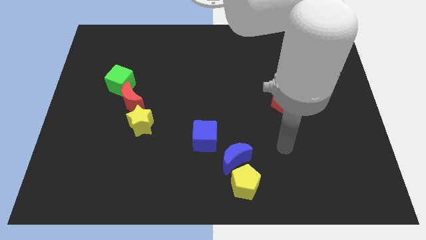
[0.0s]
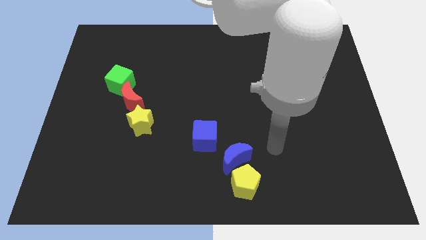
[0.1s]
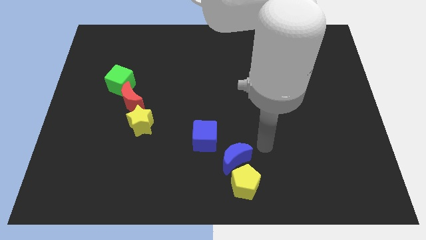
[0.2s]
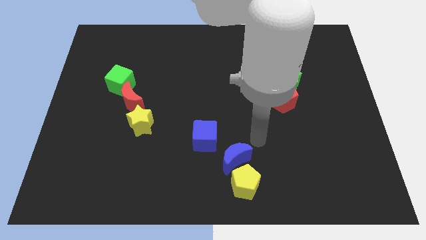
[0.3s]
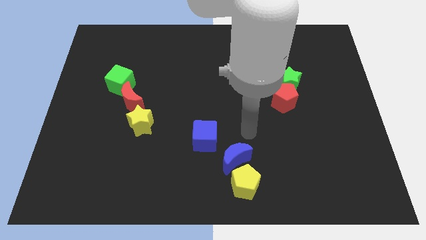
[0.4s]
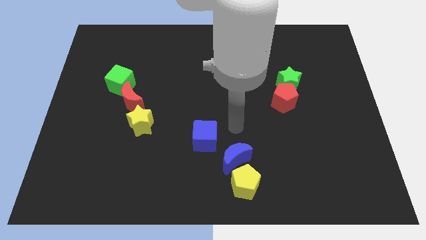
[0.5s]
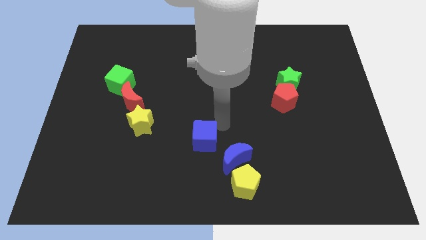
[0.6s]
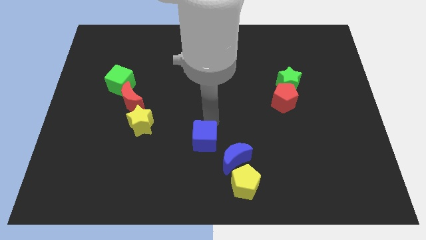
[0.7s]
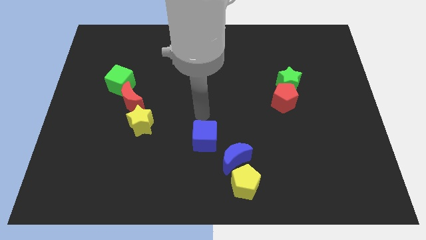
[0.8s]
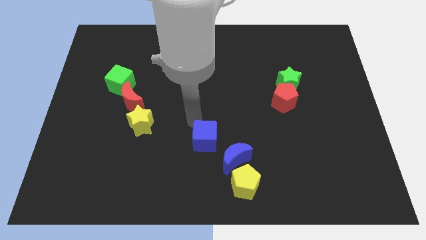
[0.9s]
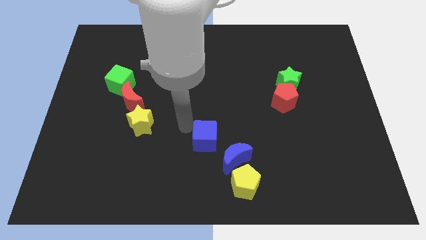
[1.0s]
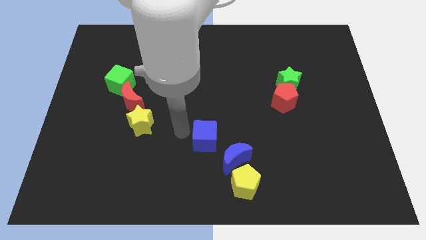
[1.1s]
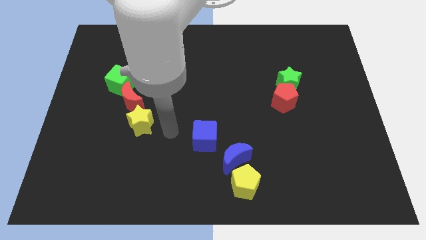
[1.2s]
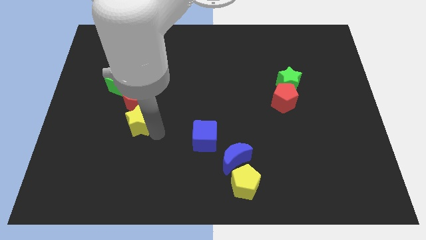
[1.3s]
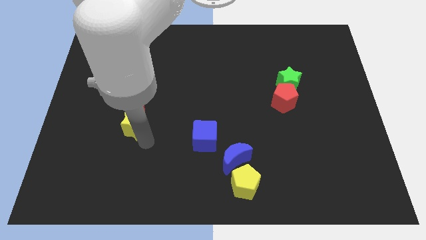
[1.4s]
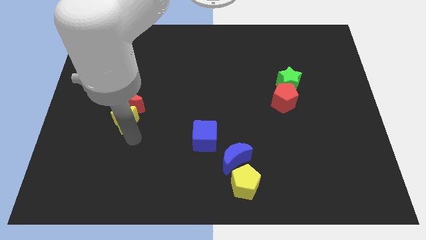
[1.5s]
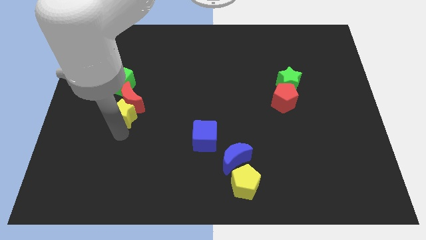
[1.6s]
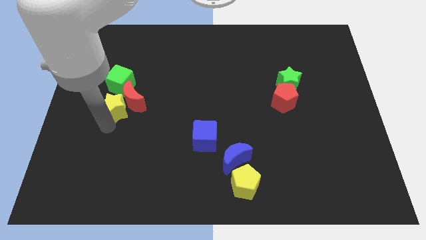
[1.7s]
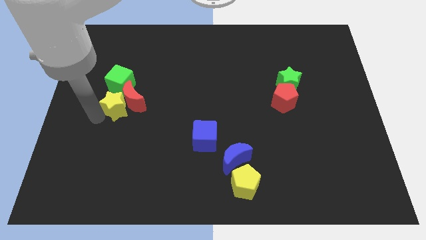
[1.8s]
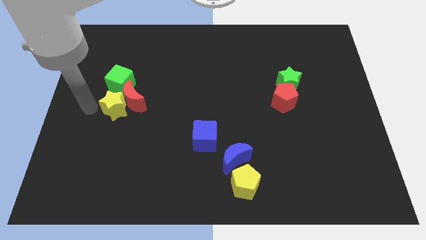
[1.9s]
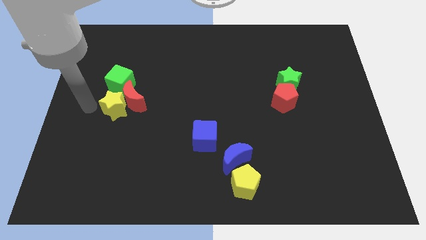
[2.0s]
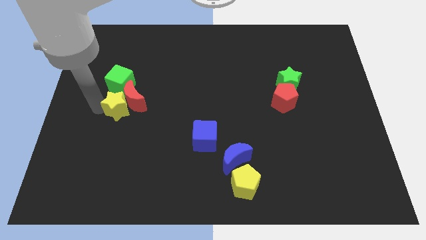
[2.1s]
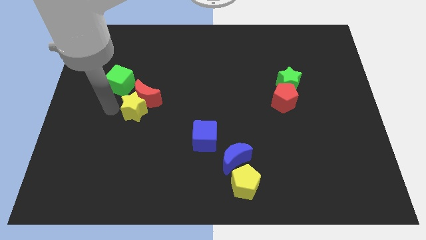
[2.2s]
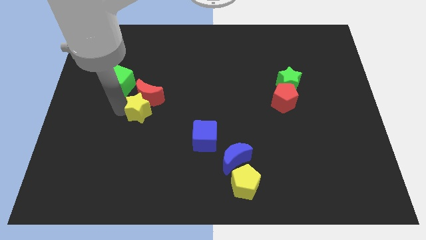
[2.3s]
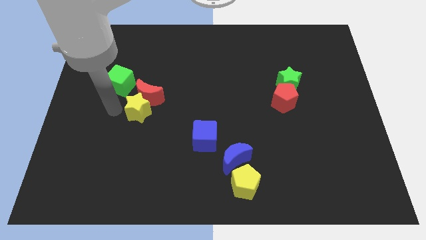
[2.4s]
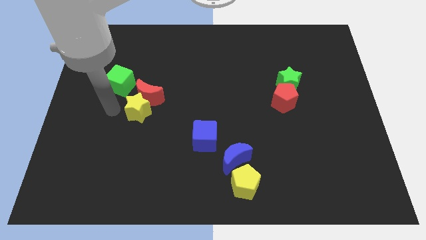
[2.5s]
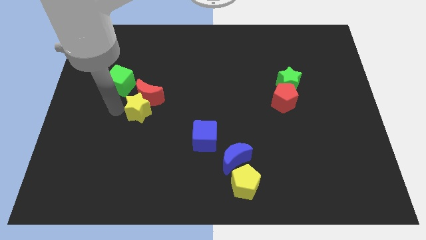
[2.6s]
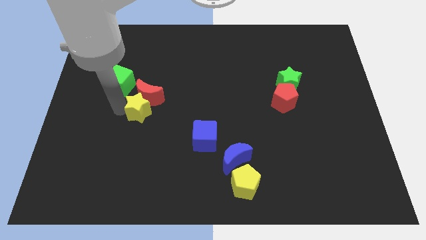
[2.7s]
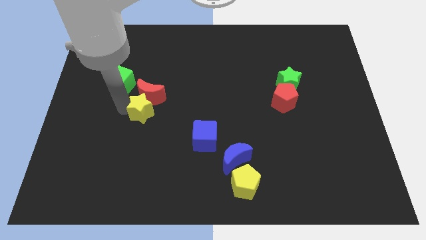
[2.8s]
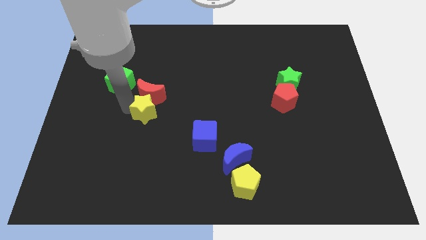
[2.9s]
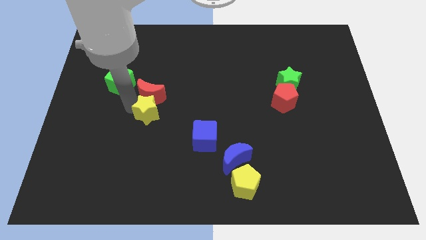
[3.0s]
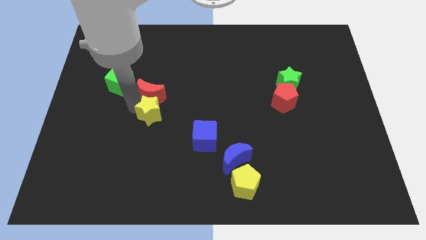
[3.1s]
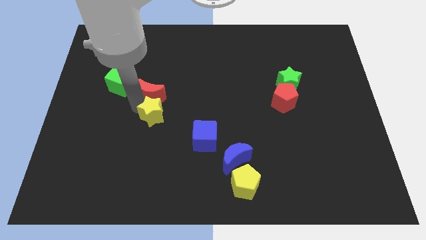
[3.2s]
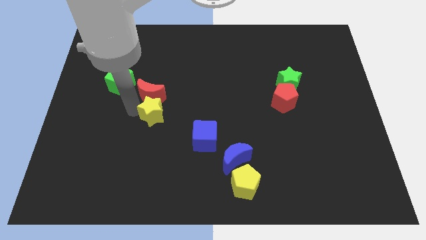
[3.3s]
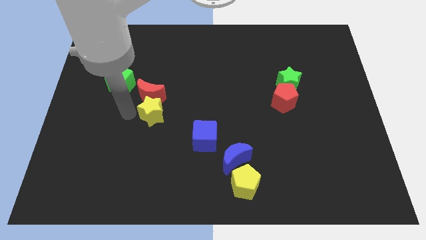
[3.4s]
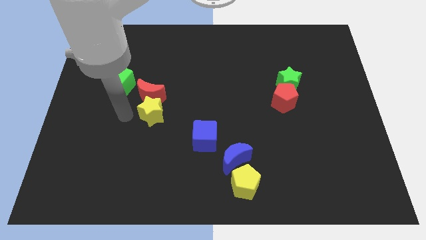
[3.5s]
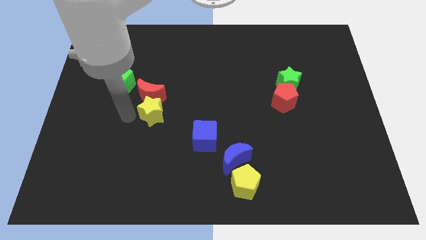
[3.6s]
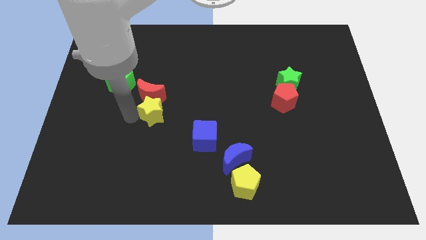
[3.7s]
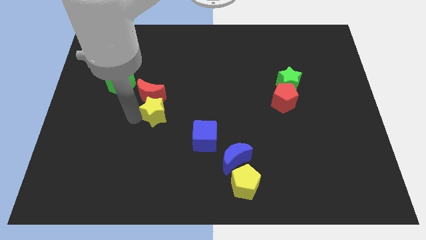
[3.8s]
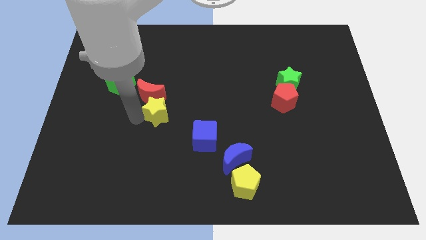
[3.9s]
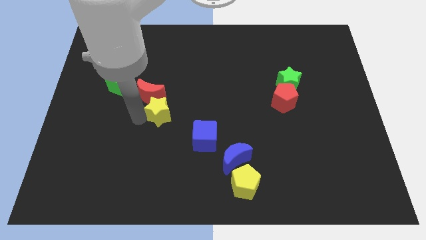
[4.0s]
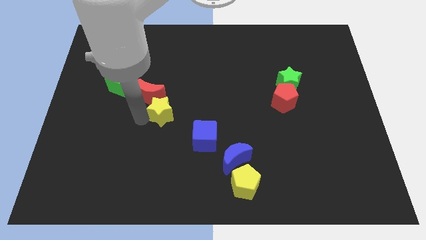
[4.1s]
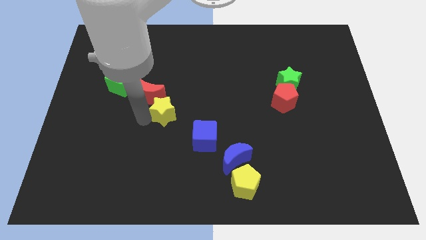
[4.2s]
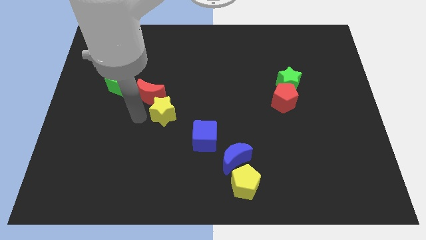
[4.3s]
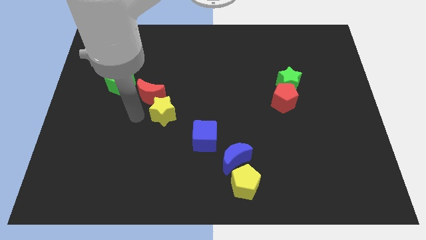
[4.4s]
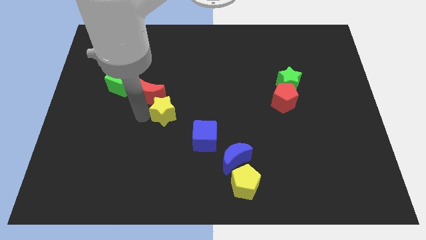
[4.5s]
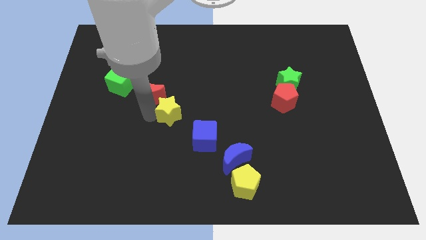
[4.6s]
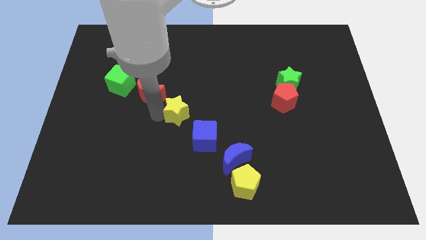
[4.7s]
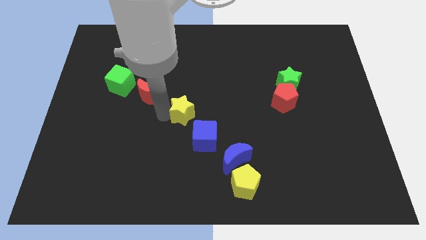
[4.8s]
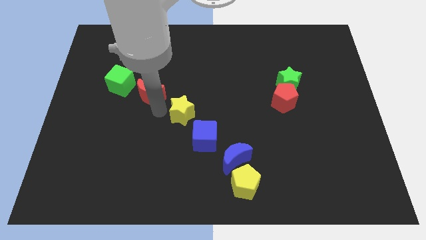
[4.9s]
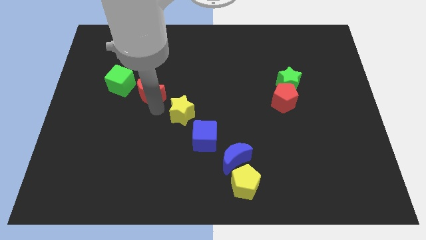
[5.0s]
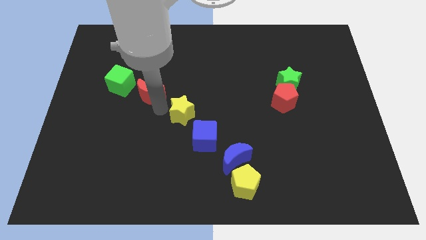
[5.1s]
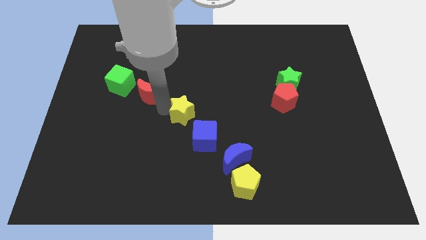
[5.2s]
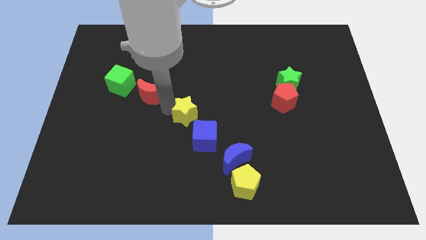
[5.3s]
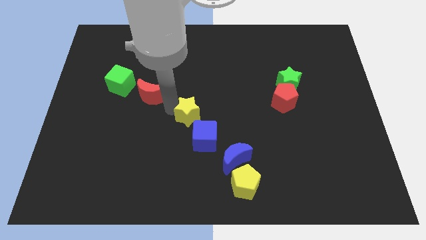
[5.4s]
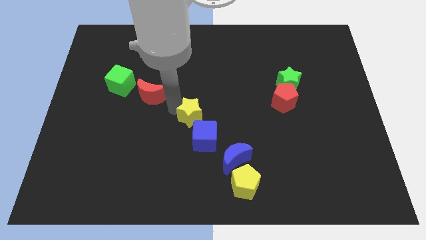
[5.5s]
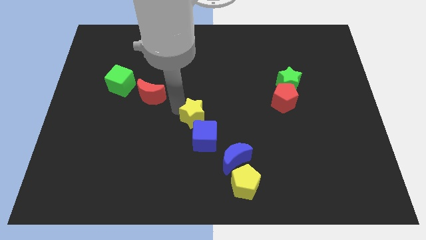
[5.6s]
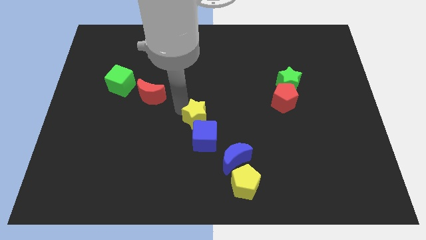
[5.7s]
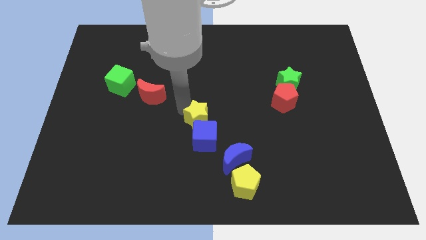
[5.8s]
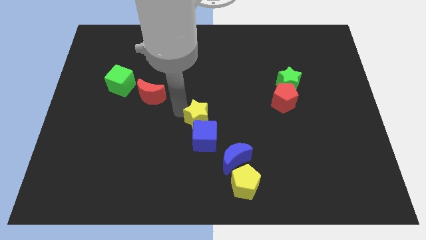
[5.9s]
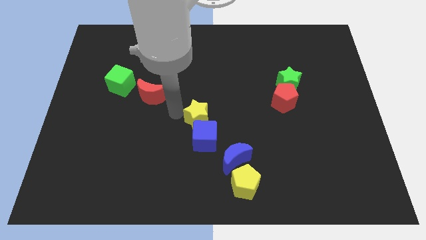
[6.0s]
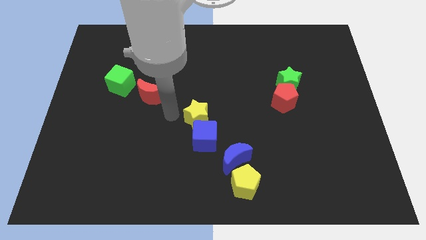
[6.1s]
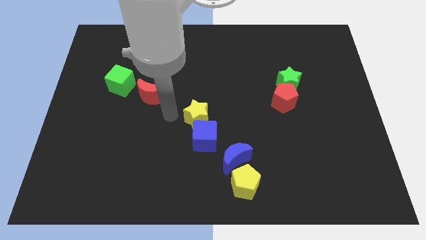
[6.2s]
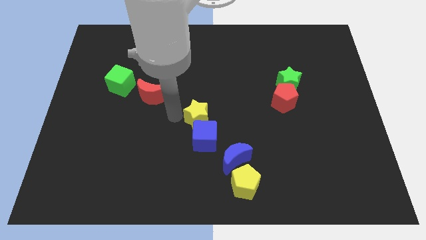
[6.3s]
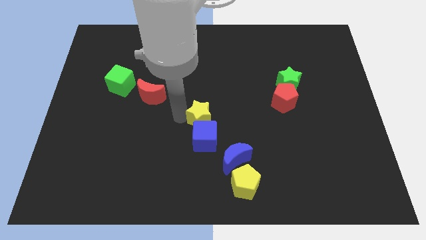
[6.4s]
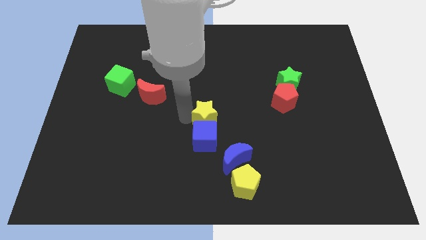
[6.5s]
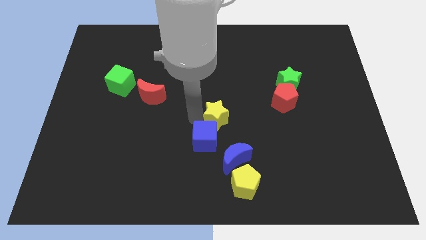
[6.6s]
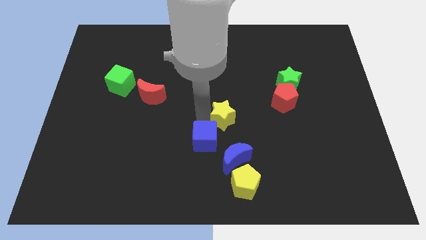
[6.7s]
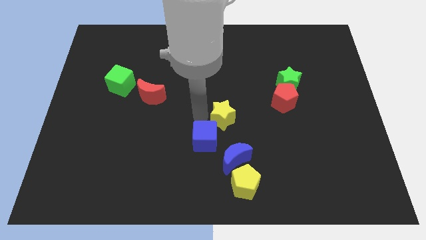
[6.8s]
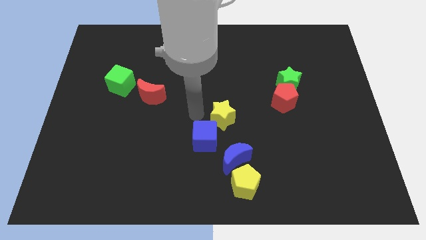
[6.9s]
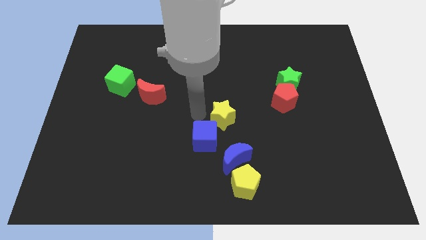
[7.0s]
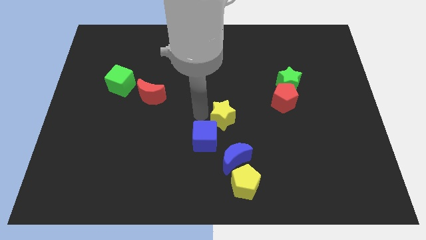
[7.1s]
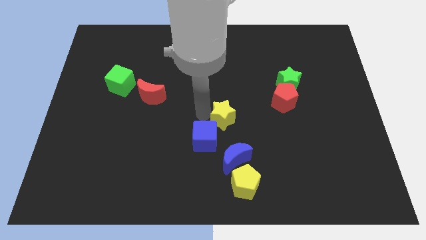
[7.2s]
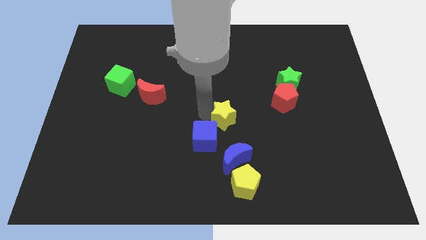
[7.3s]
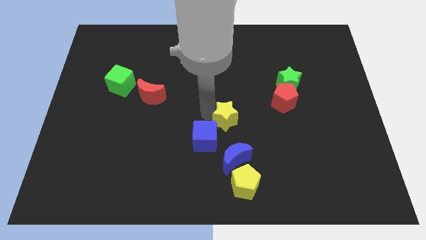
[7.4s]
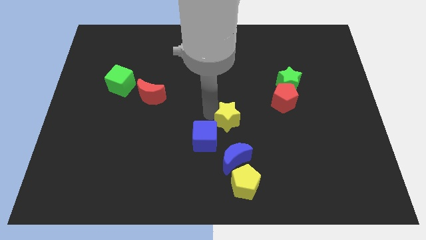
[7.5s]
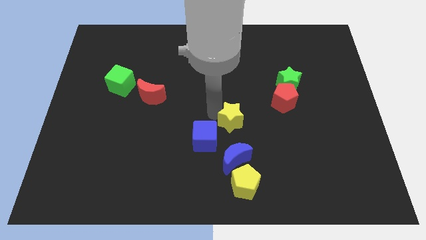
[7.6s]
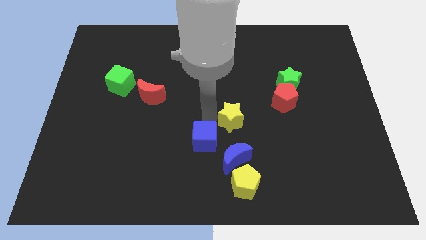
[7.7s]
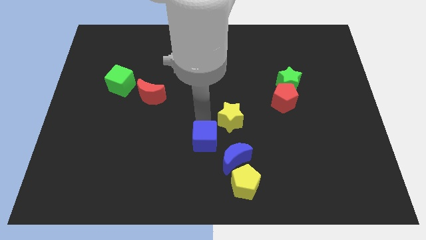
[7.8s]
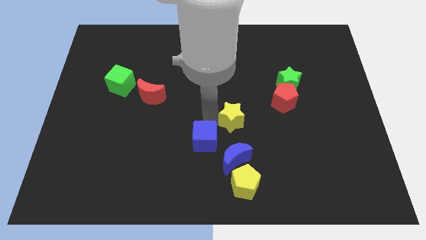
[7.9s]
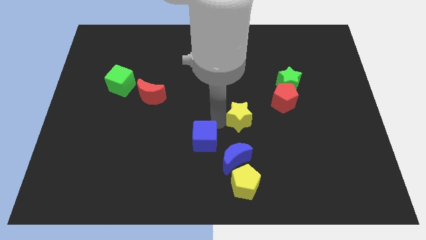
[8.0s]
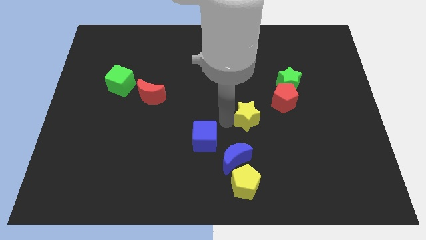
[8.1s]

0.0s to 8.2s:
push the yellow star to the bottom left side of the red pentagon
